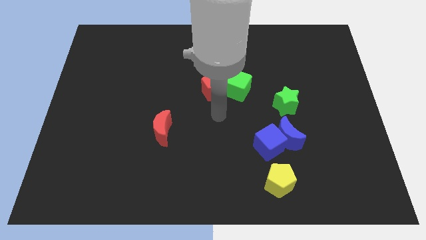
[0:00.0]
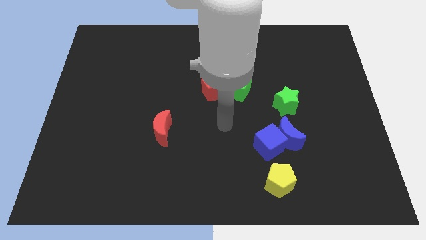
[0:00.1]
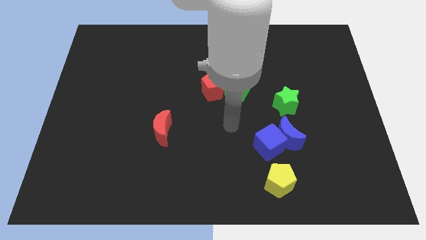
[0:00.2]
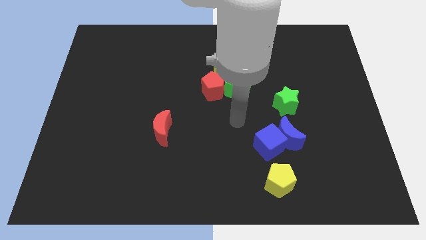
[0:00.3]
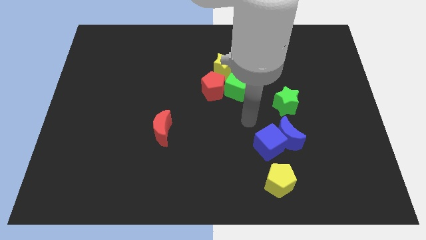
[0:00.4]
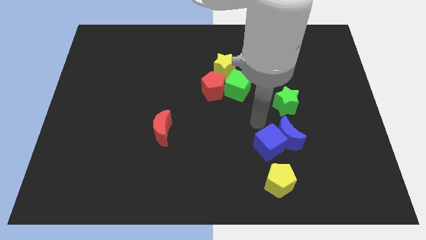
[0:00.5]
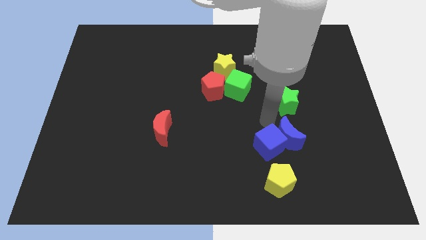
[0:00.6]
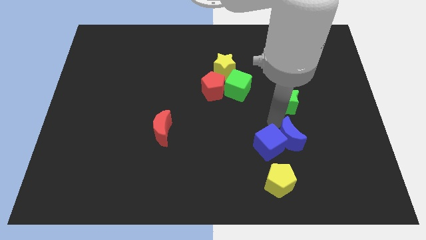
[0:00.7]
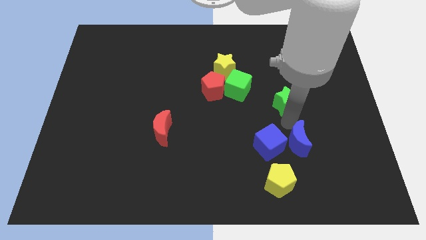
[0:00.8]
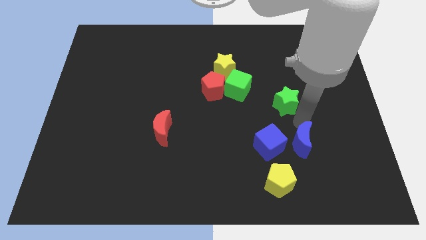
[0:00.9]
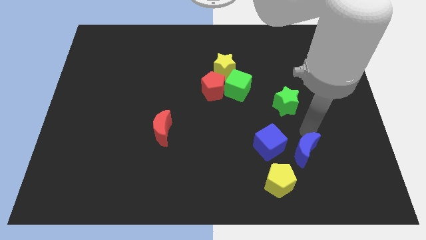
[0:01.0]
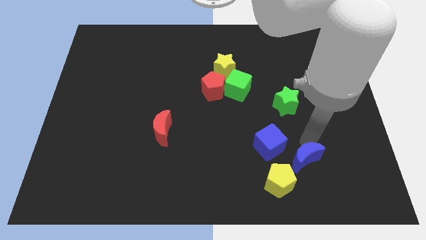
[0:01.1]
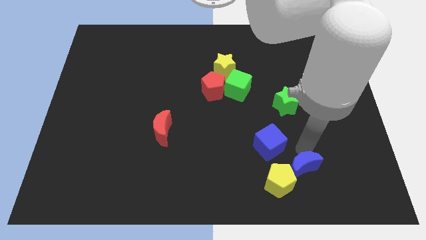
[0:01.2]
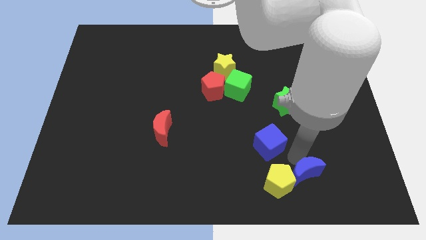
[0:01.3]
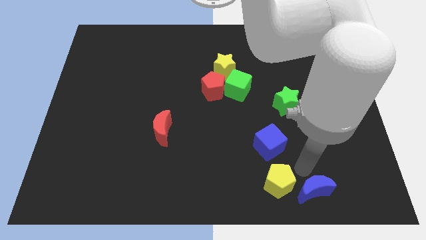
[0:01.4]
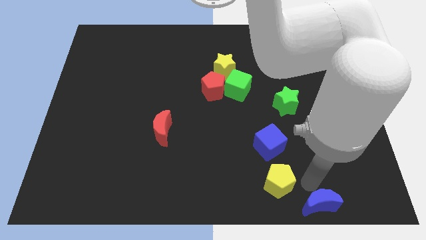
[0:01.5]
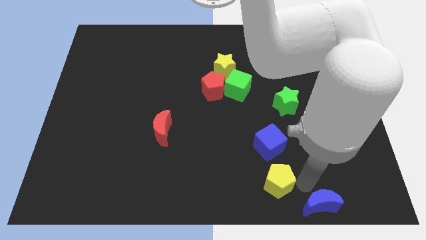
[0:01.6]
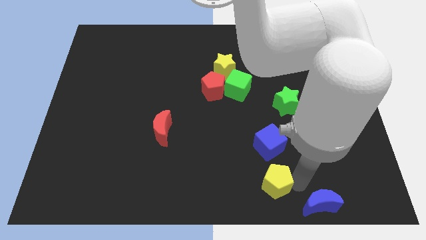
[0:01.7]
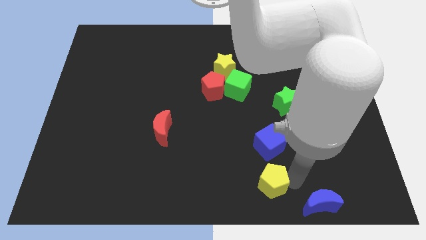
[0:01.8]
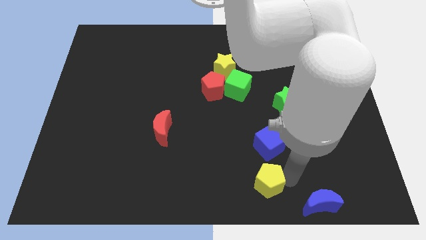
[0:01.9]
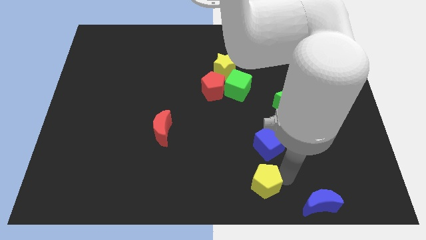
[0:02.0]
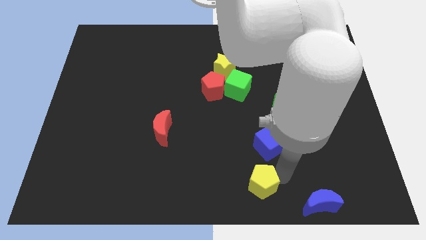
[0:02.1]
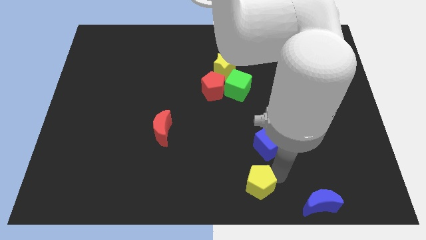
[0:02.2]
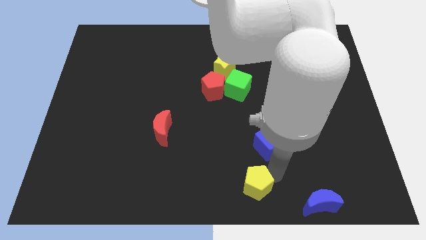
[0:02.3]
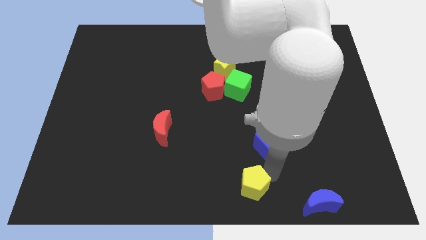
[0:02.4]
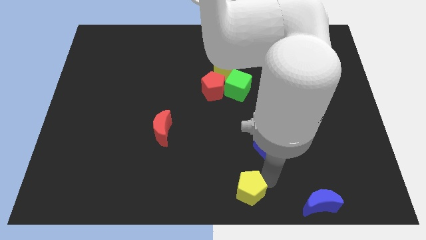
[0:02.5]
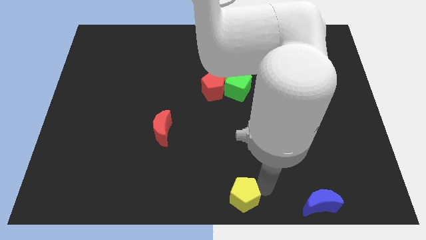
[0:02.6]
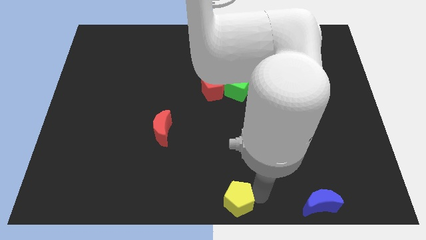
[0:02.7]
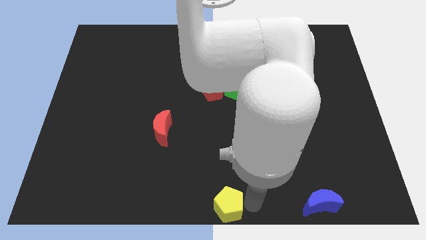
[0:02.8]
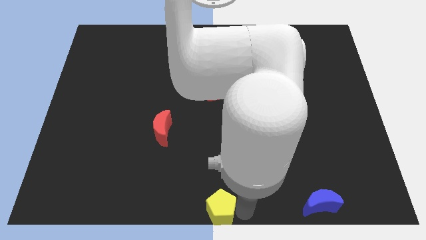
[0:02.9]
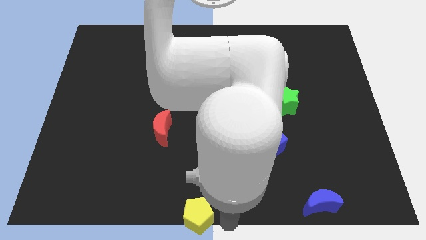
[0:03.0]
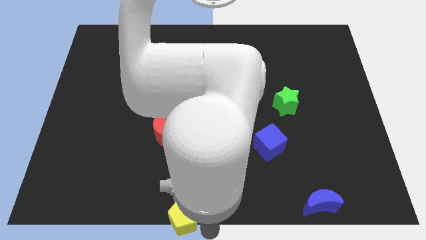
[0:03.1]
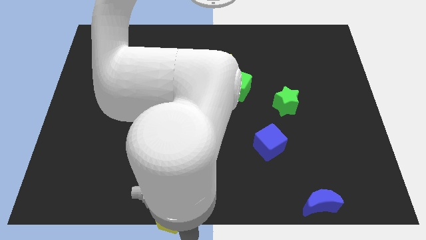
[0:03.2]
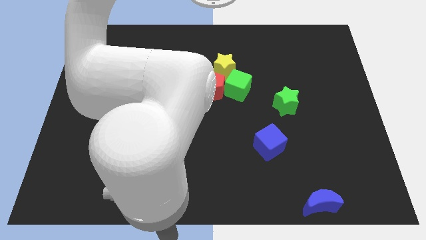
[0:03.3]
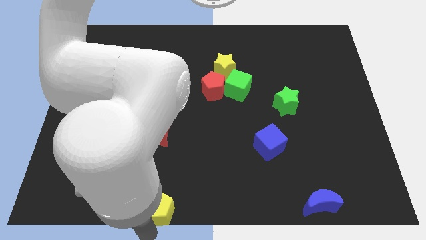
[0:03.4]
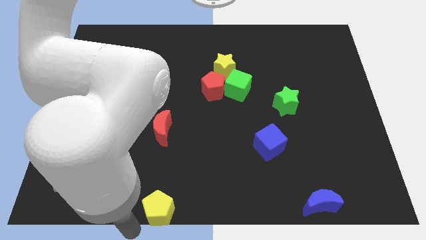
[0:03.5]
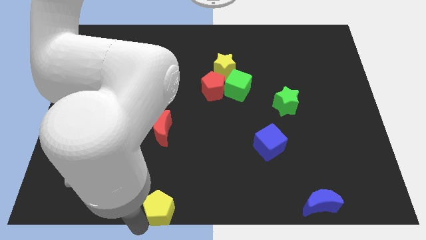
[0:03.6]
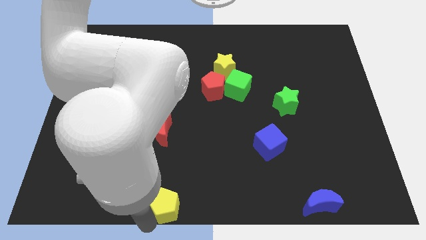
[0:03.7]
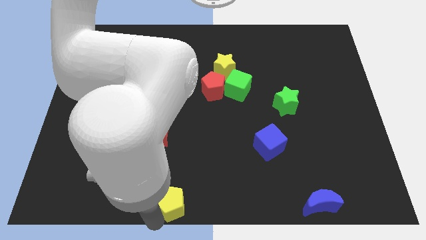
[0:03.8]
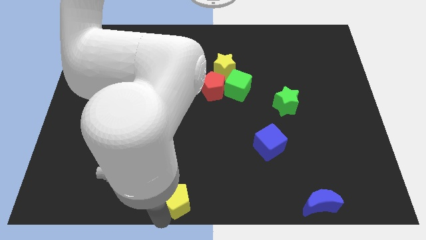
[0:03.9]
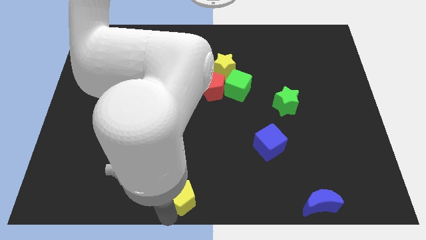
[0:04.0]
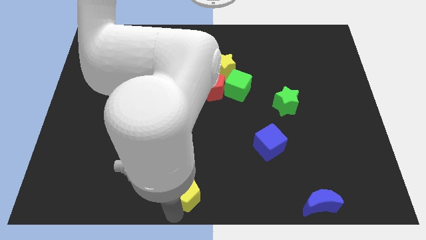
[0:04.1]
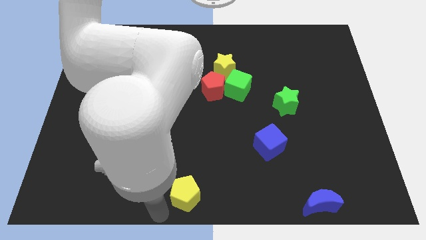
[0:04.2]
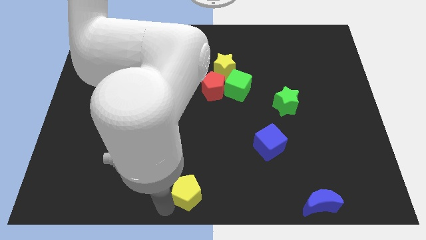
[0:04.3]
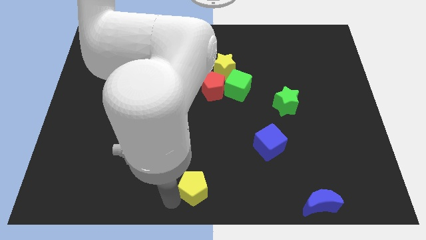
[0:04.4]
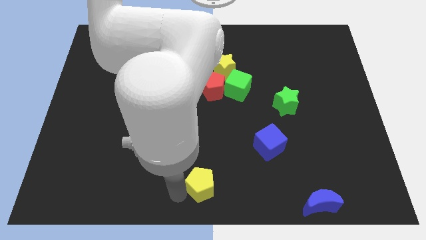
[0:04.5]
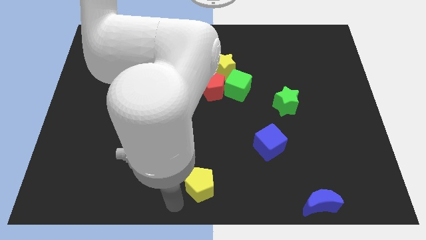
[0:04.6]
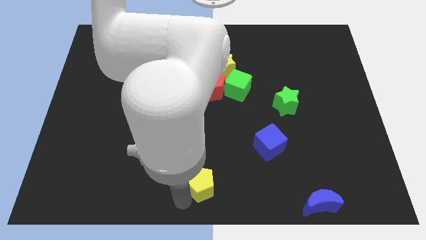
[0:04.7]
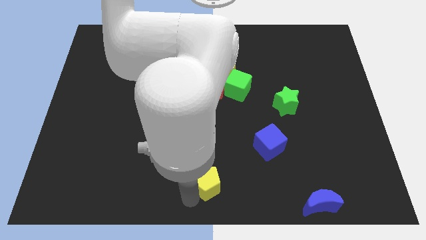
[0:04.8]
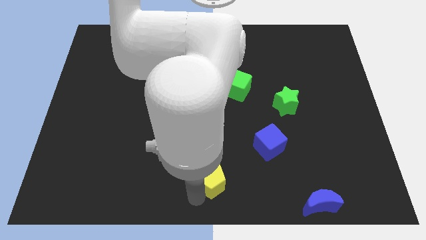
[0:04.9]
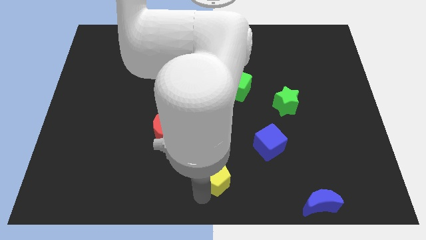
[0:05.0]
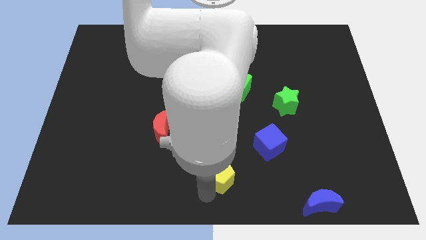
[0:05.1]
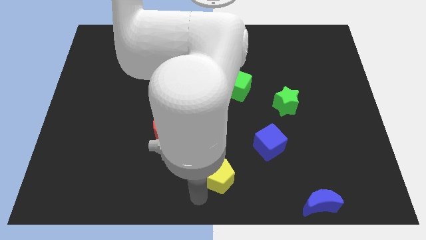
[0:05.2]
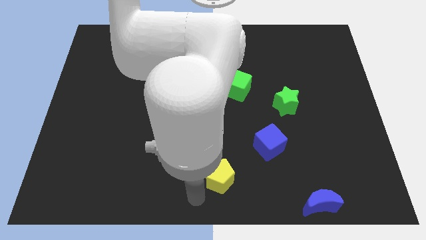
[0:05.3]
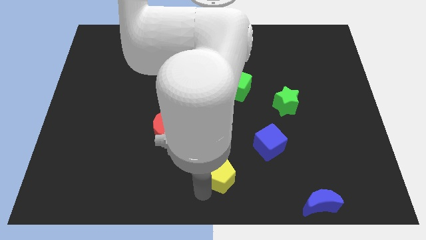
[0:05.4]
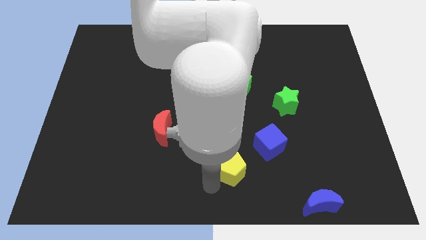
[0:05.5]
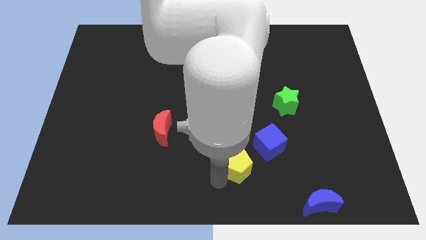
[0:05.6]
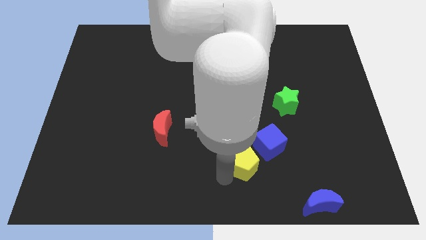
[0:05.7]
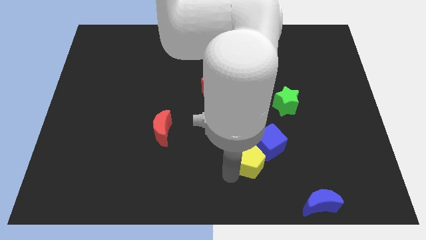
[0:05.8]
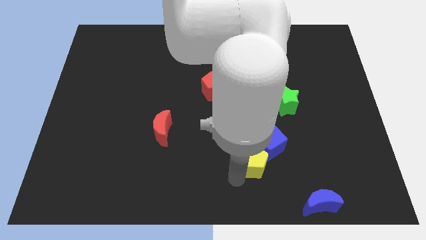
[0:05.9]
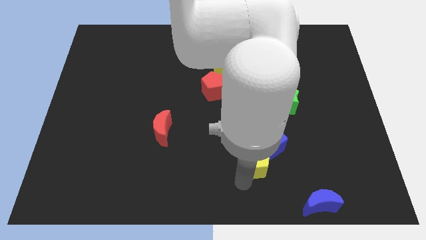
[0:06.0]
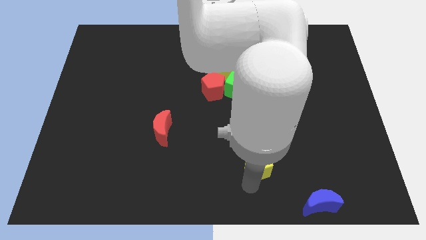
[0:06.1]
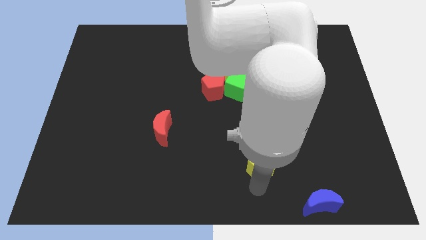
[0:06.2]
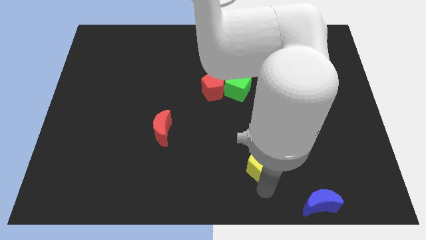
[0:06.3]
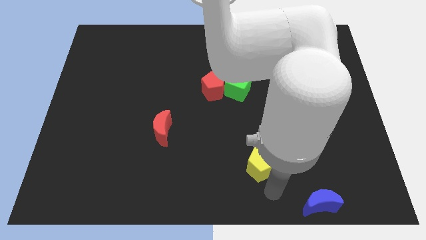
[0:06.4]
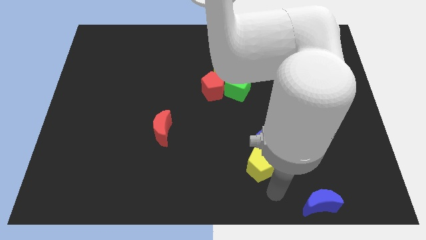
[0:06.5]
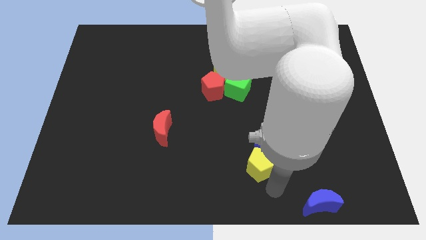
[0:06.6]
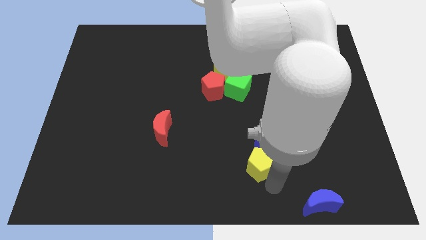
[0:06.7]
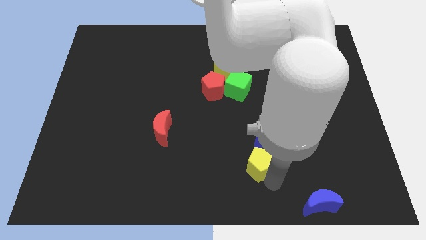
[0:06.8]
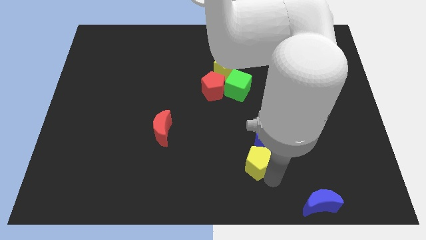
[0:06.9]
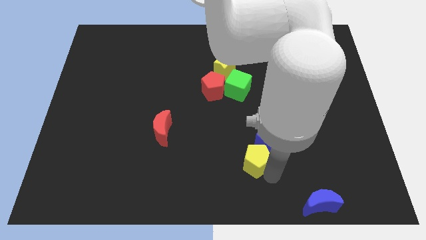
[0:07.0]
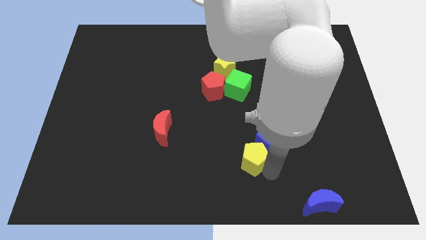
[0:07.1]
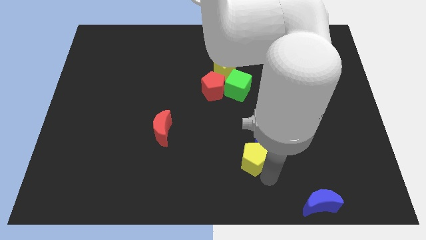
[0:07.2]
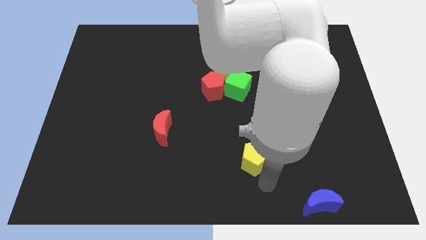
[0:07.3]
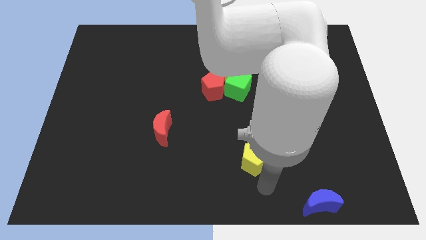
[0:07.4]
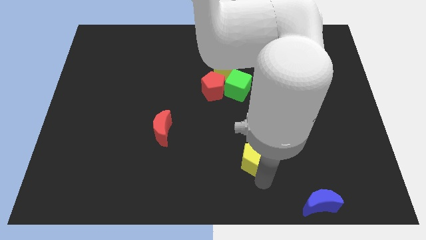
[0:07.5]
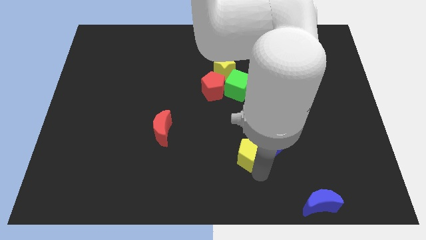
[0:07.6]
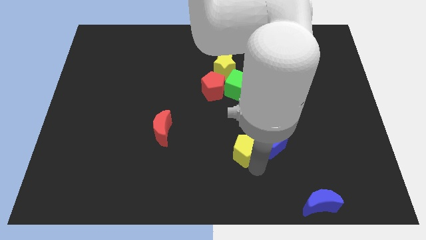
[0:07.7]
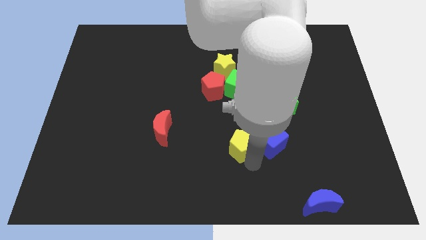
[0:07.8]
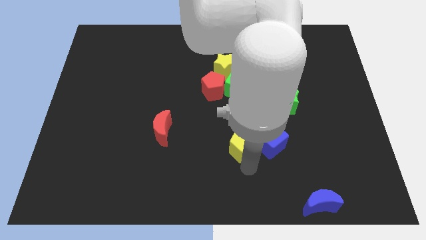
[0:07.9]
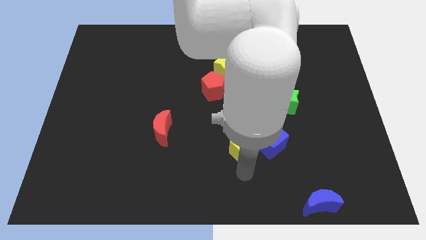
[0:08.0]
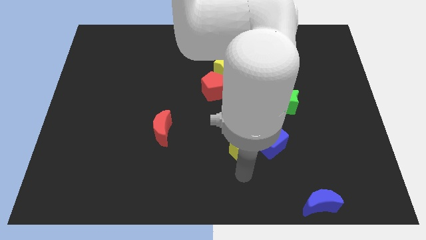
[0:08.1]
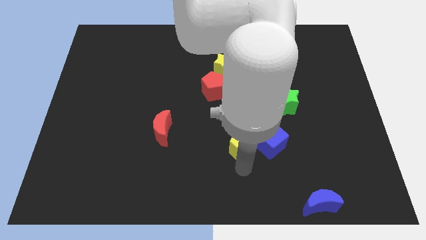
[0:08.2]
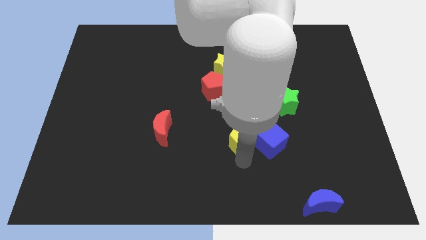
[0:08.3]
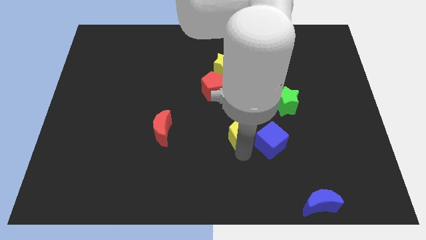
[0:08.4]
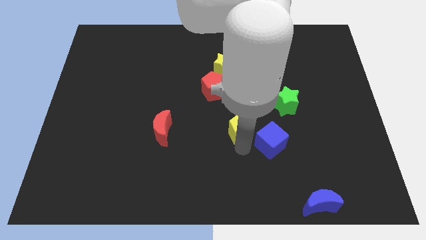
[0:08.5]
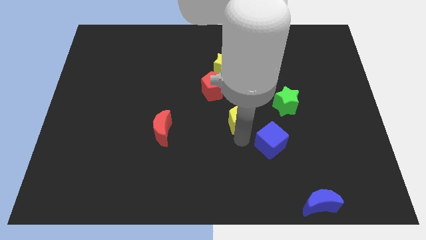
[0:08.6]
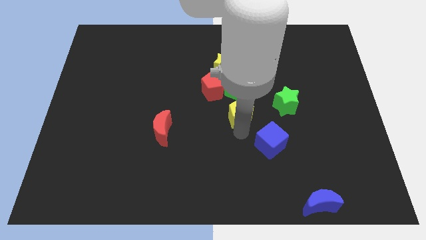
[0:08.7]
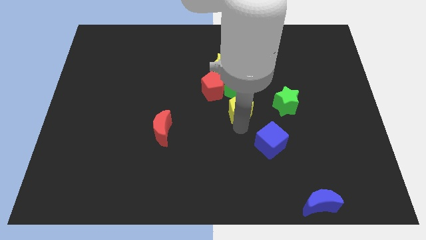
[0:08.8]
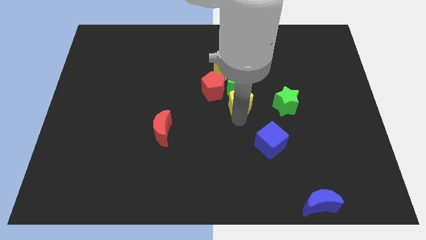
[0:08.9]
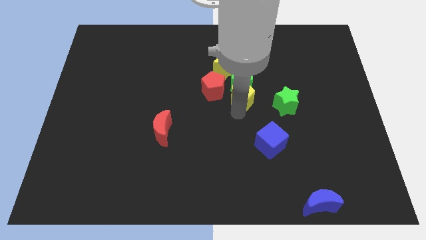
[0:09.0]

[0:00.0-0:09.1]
move the yellow pentagon up
